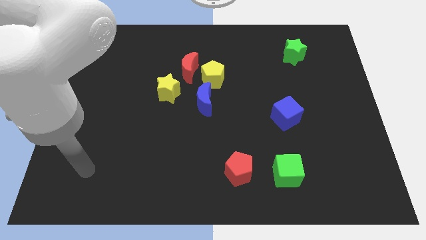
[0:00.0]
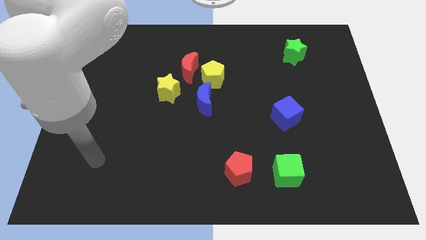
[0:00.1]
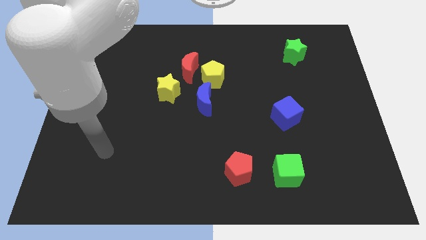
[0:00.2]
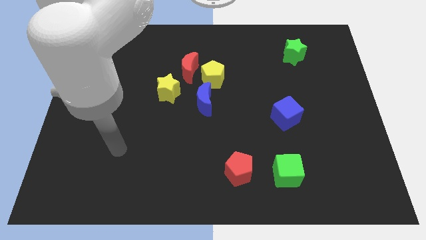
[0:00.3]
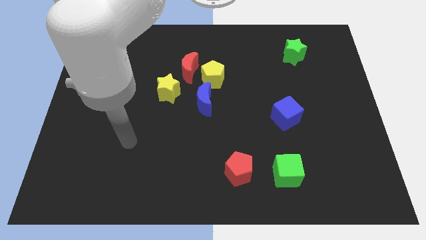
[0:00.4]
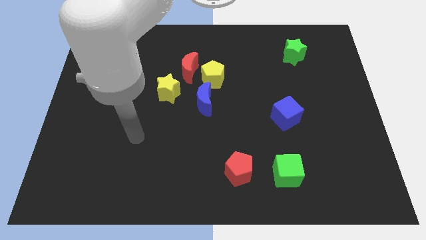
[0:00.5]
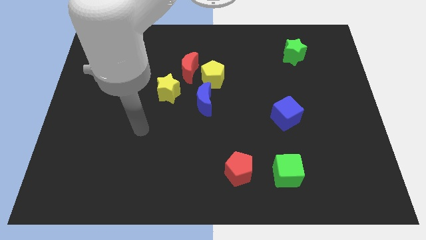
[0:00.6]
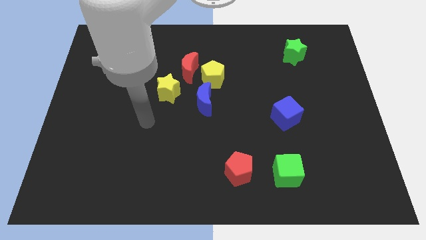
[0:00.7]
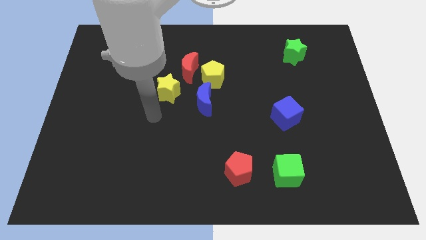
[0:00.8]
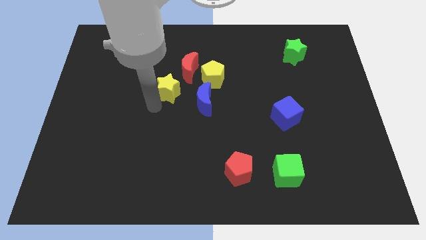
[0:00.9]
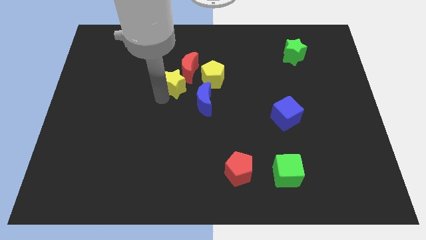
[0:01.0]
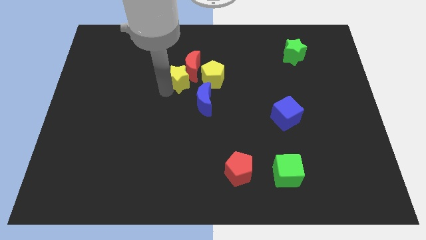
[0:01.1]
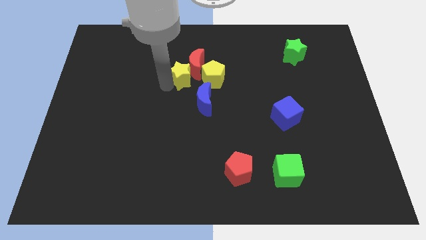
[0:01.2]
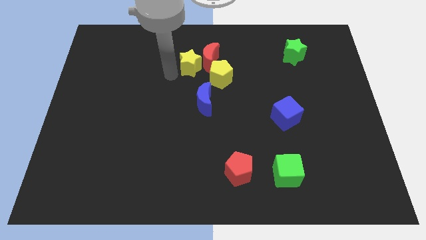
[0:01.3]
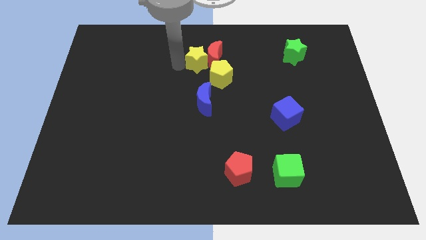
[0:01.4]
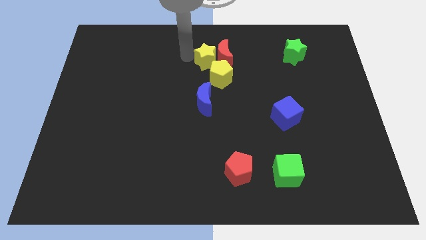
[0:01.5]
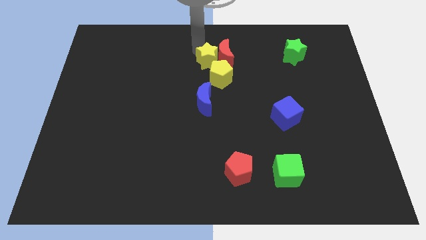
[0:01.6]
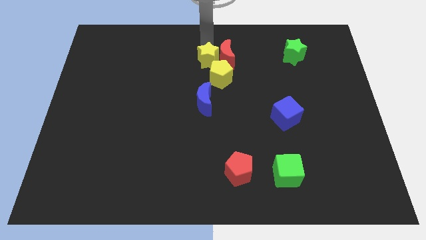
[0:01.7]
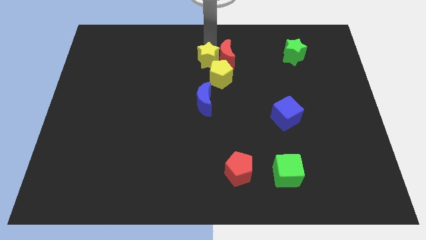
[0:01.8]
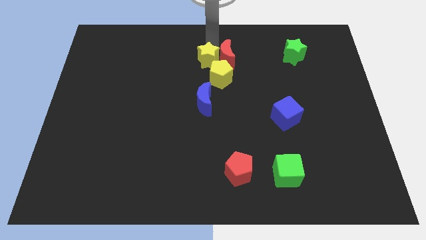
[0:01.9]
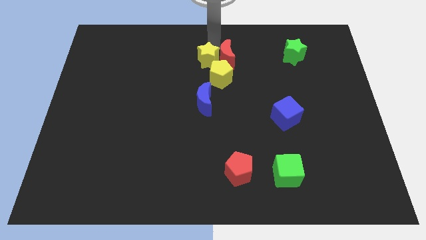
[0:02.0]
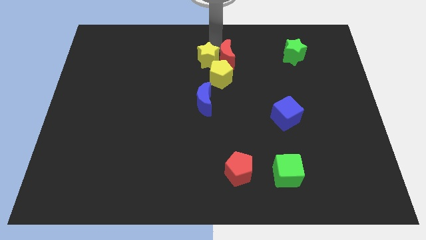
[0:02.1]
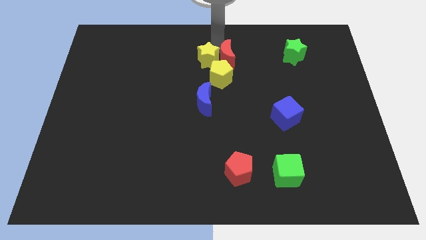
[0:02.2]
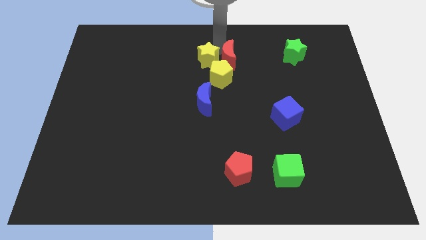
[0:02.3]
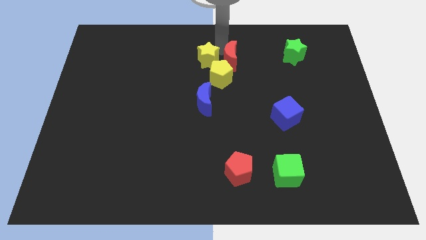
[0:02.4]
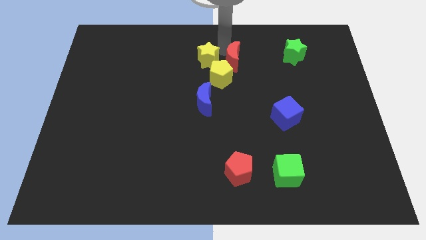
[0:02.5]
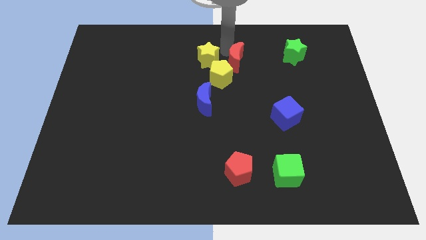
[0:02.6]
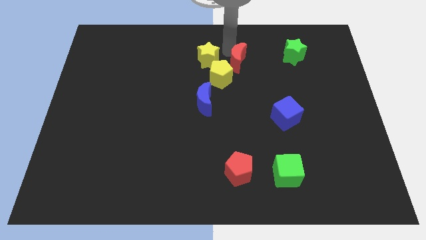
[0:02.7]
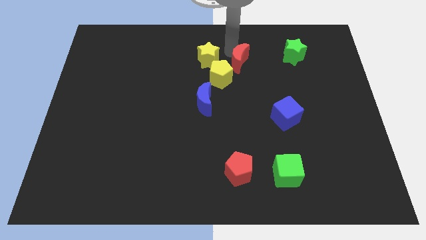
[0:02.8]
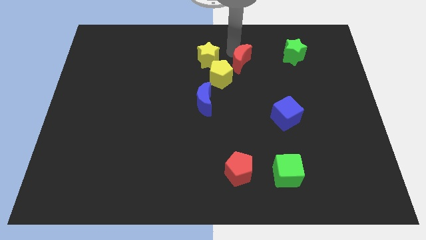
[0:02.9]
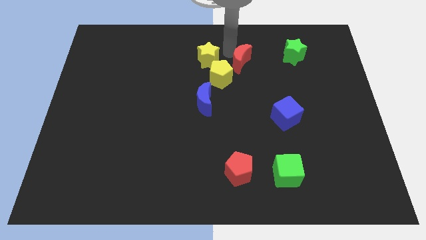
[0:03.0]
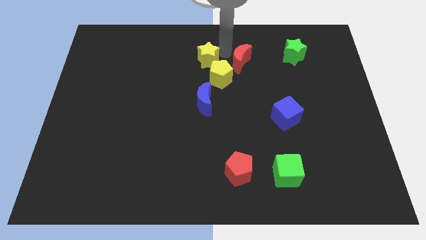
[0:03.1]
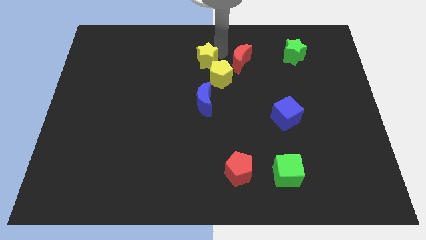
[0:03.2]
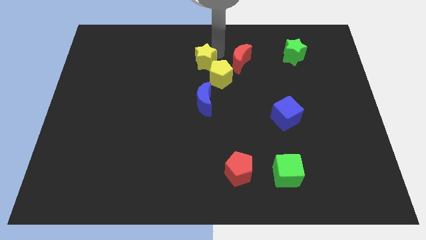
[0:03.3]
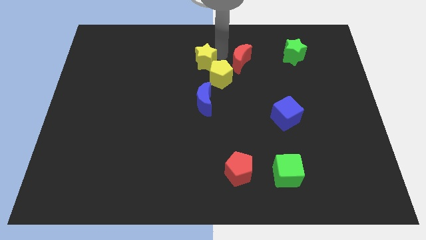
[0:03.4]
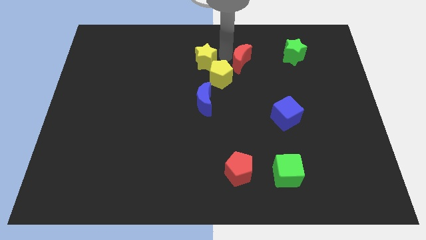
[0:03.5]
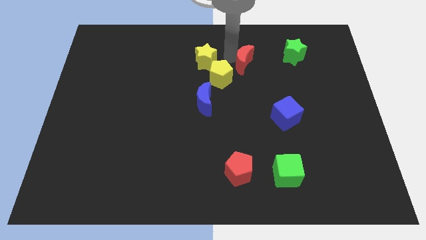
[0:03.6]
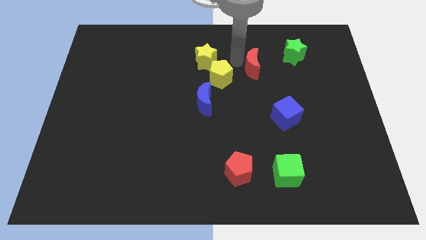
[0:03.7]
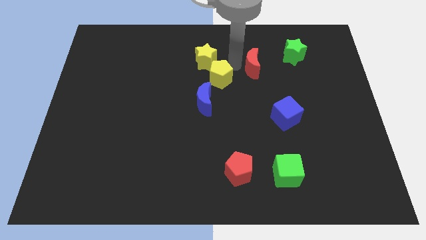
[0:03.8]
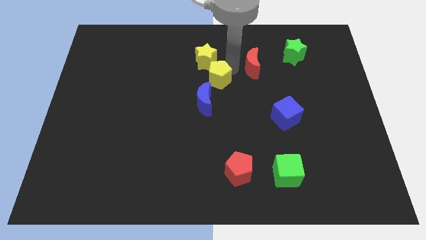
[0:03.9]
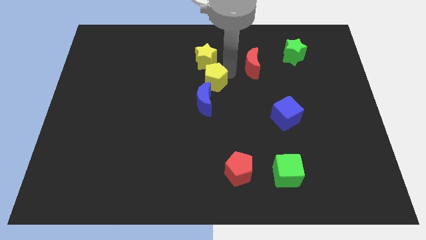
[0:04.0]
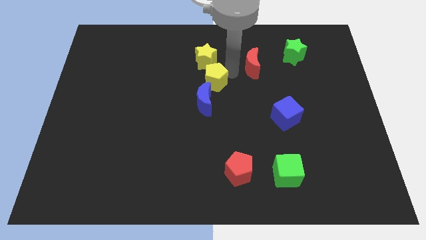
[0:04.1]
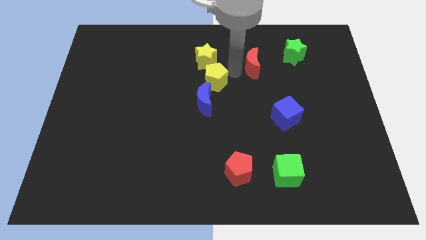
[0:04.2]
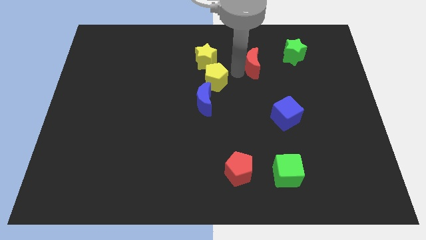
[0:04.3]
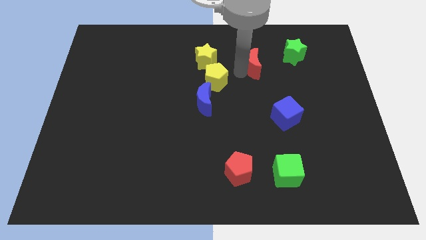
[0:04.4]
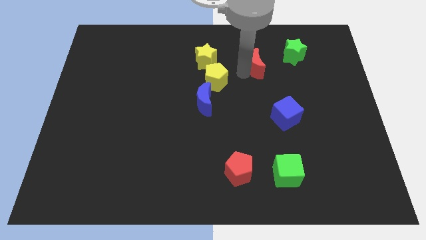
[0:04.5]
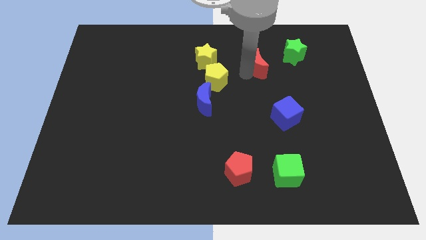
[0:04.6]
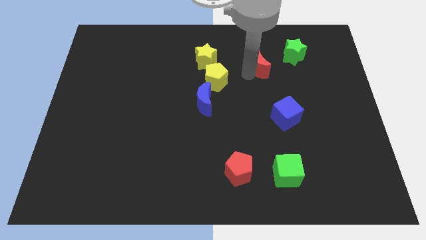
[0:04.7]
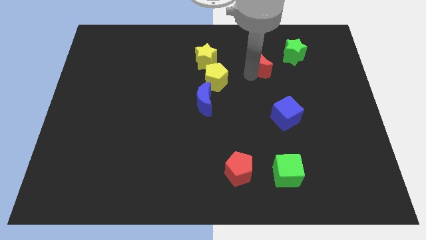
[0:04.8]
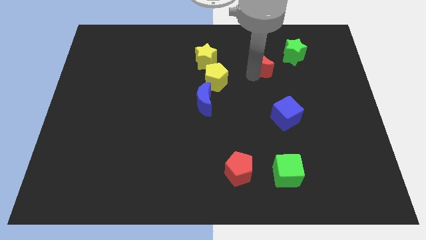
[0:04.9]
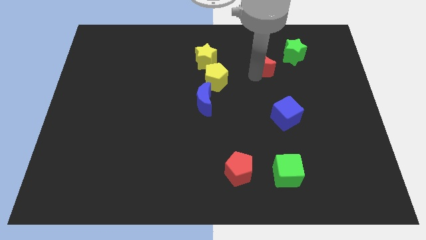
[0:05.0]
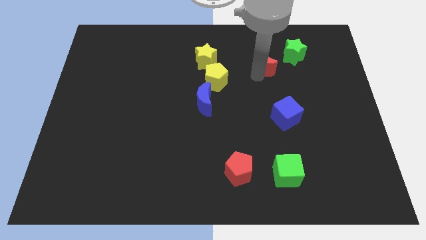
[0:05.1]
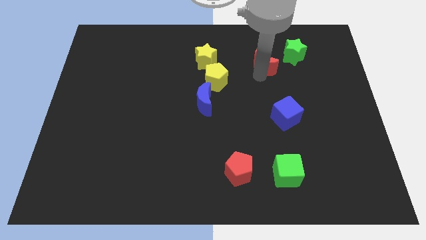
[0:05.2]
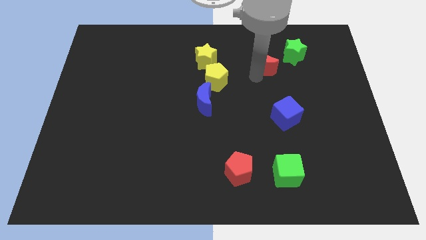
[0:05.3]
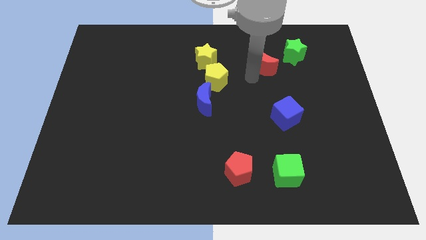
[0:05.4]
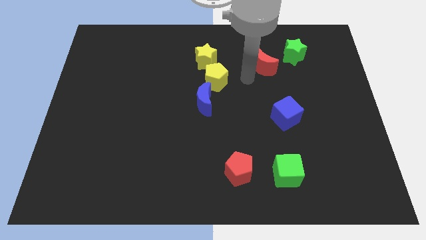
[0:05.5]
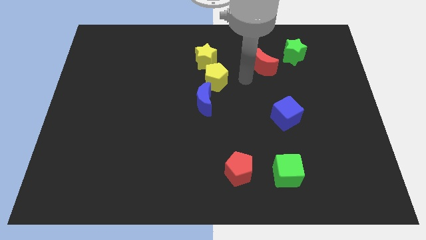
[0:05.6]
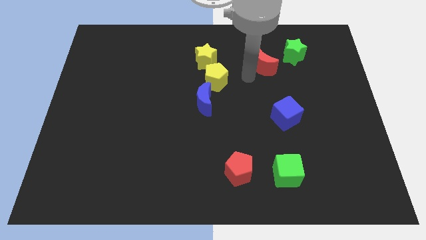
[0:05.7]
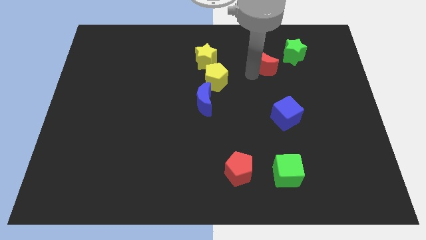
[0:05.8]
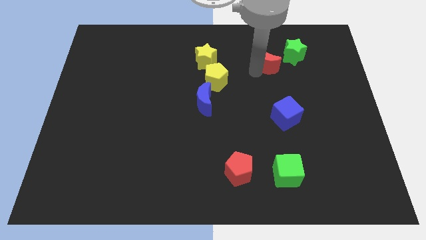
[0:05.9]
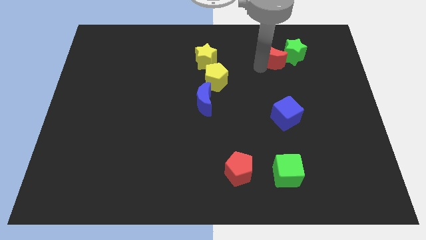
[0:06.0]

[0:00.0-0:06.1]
move the red moon to the green star

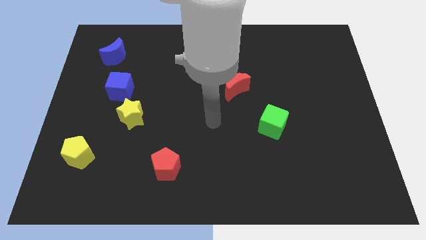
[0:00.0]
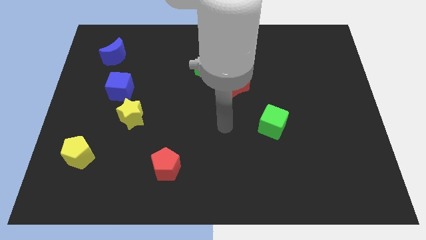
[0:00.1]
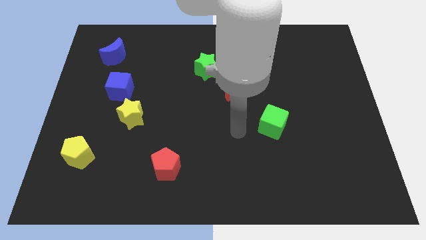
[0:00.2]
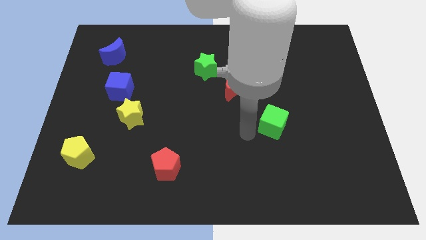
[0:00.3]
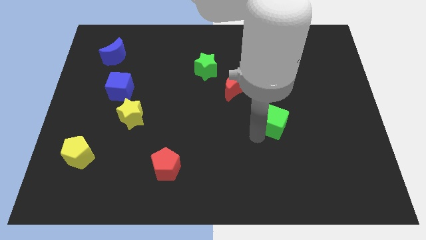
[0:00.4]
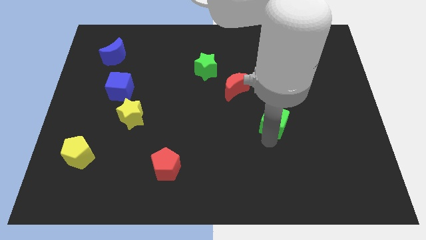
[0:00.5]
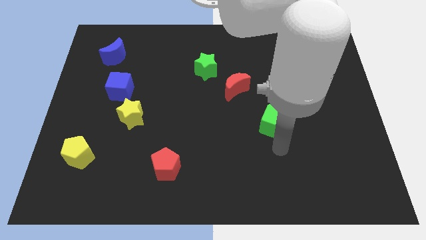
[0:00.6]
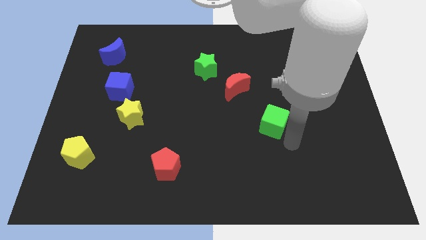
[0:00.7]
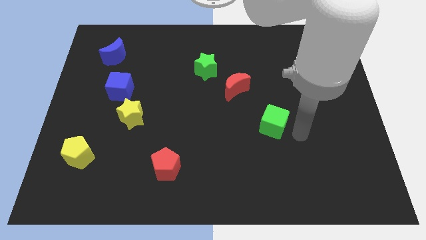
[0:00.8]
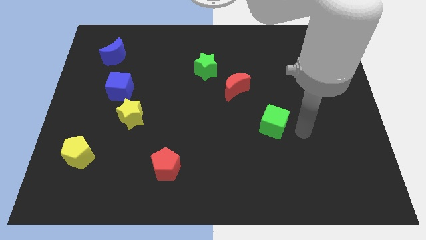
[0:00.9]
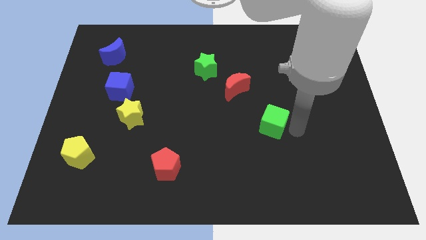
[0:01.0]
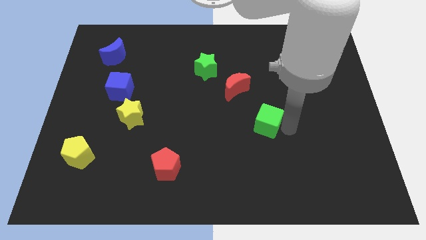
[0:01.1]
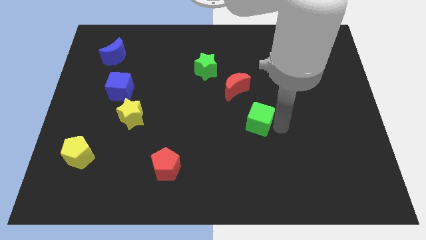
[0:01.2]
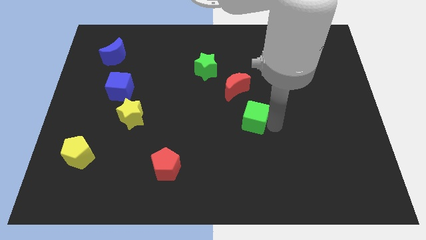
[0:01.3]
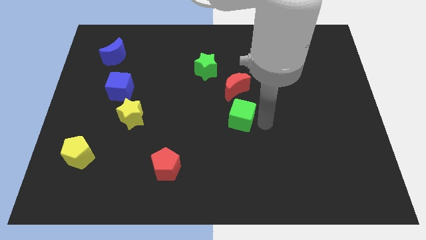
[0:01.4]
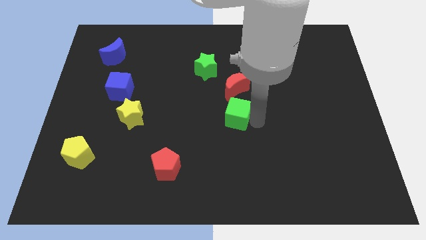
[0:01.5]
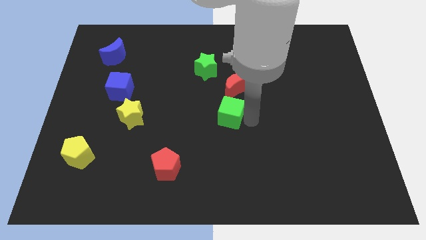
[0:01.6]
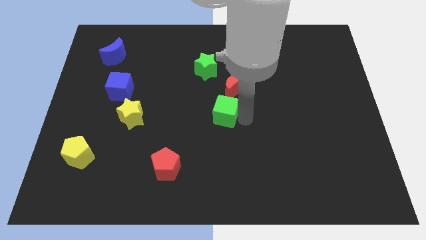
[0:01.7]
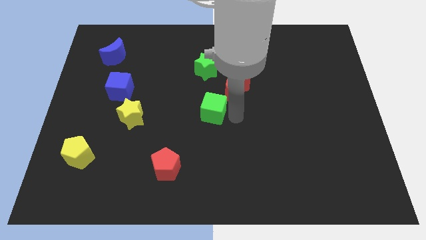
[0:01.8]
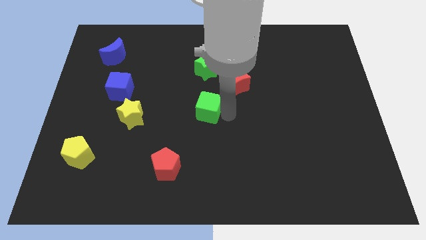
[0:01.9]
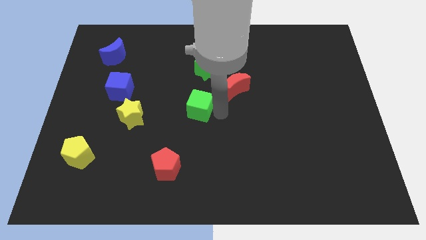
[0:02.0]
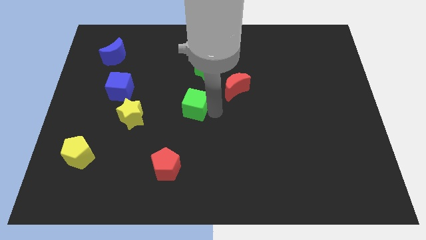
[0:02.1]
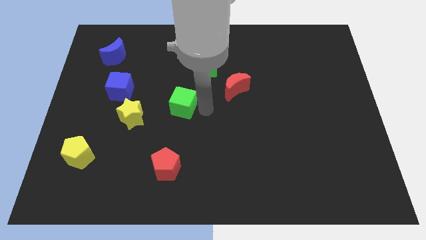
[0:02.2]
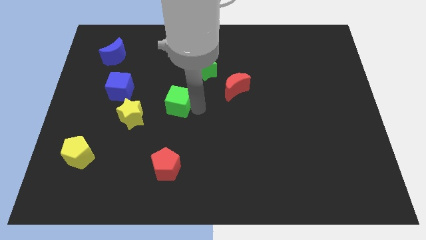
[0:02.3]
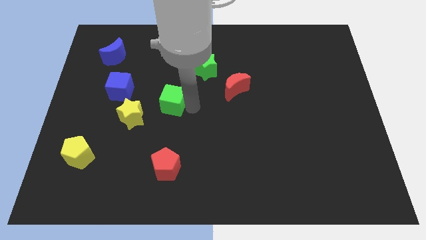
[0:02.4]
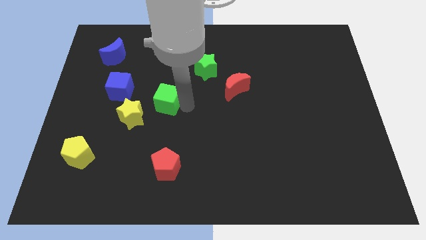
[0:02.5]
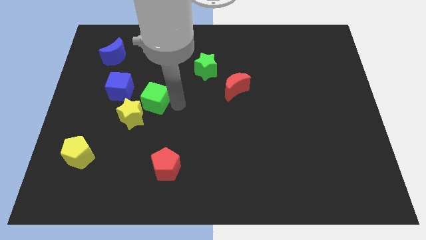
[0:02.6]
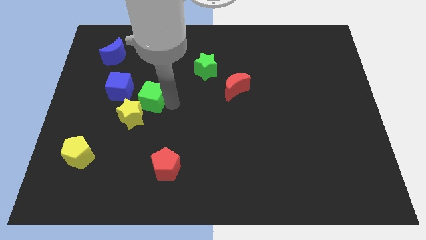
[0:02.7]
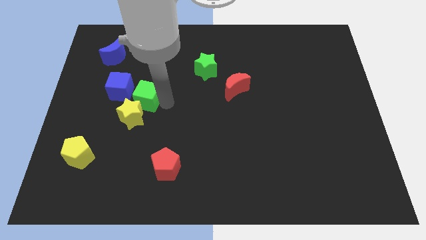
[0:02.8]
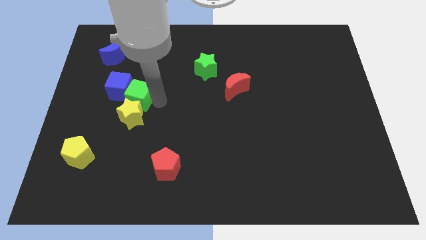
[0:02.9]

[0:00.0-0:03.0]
push the green cube towards the blue cube
